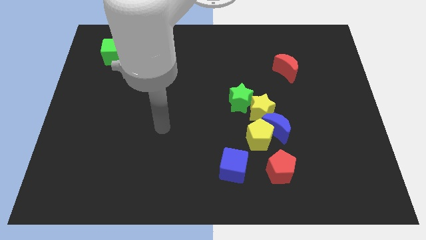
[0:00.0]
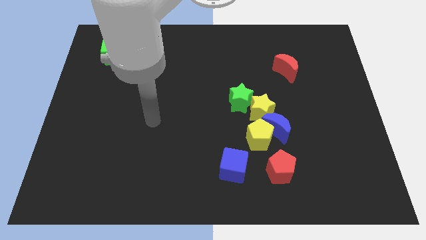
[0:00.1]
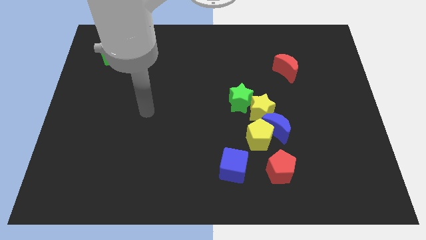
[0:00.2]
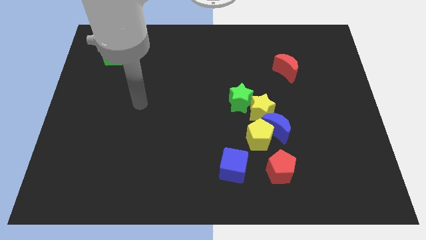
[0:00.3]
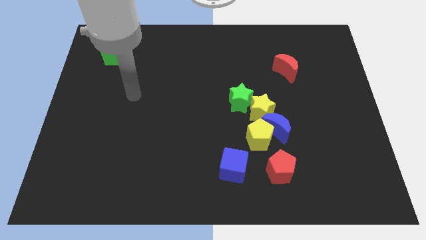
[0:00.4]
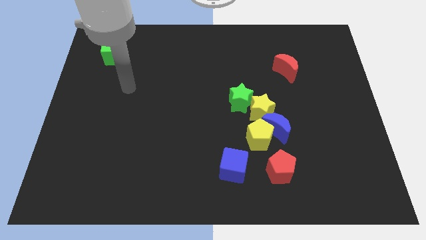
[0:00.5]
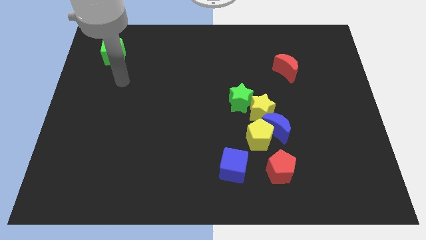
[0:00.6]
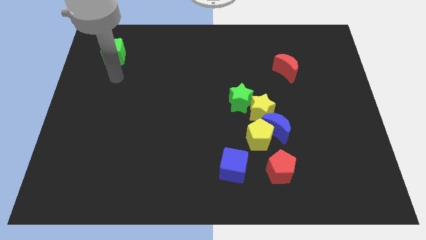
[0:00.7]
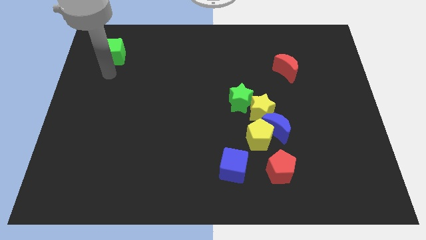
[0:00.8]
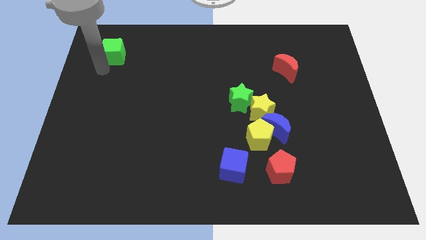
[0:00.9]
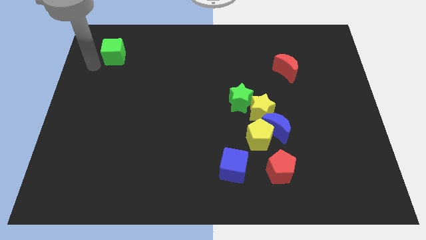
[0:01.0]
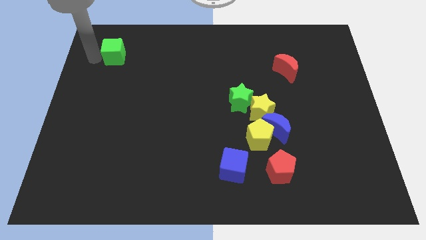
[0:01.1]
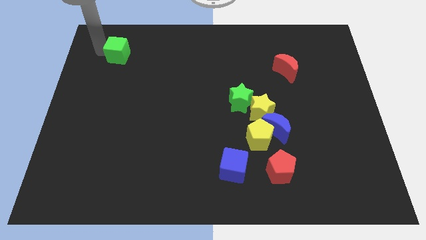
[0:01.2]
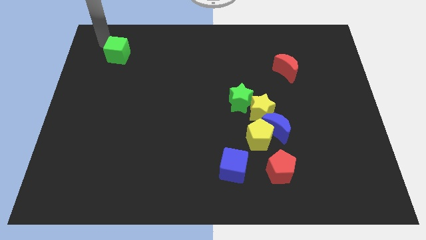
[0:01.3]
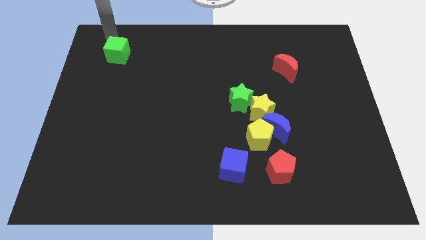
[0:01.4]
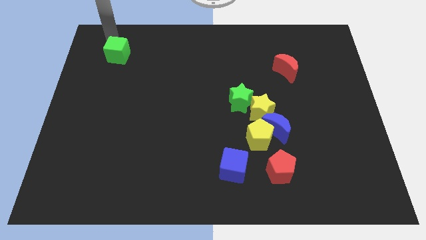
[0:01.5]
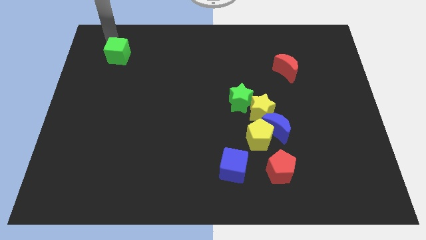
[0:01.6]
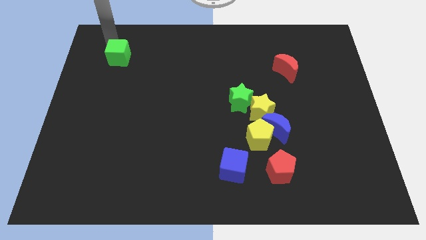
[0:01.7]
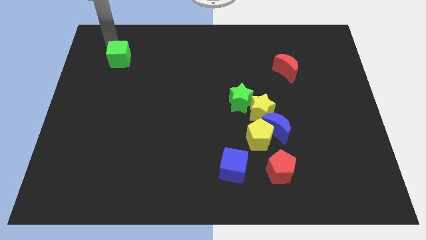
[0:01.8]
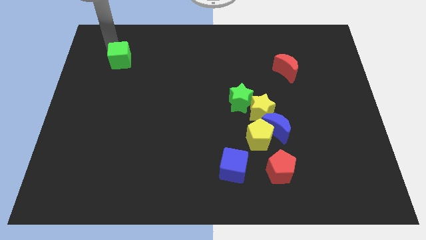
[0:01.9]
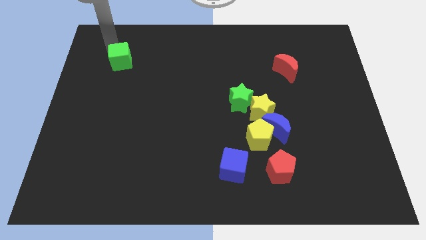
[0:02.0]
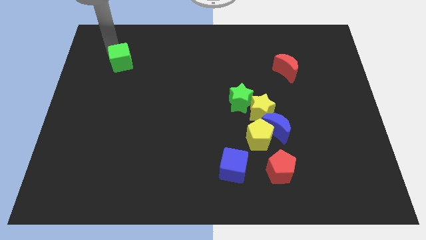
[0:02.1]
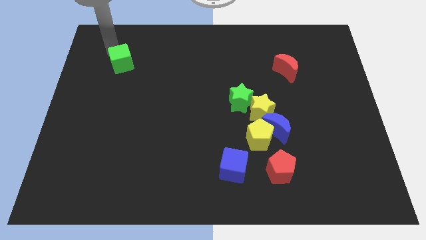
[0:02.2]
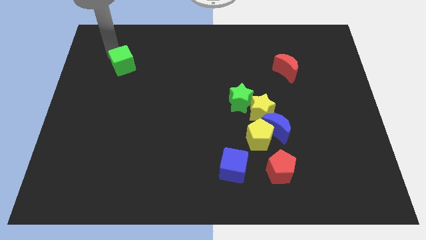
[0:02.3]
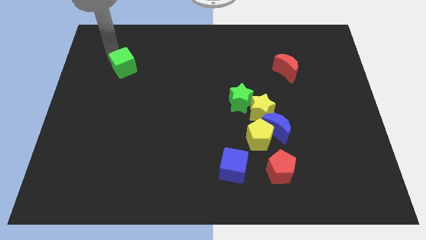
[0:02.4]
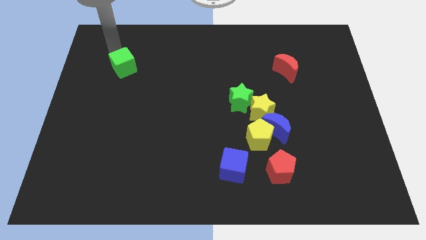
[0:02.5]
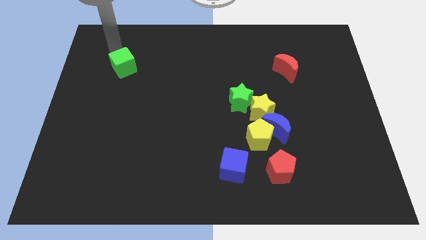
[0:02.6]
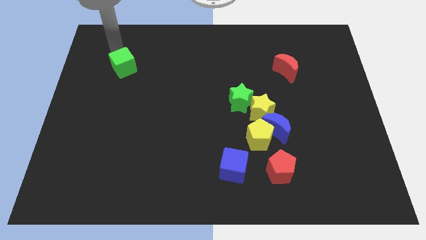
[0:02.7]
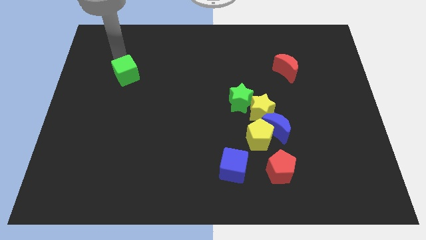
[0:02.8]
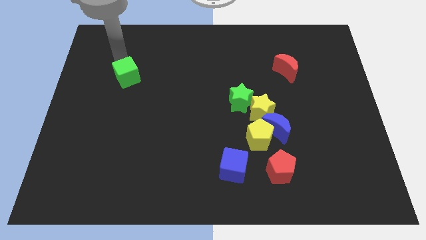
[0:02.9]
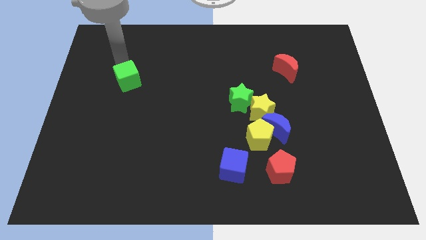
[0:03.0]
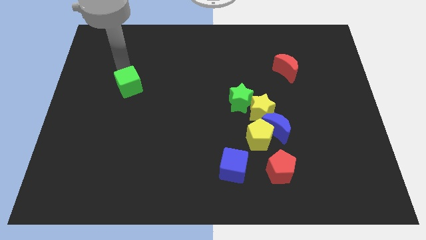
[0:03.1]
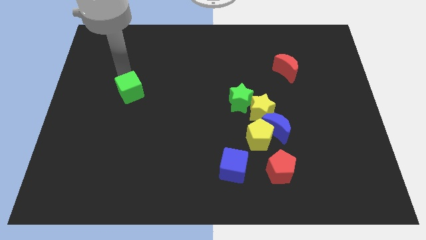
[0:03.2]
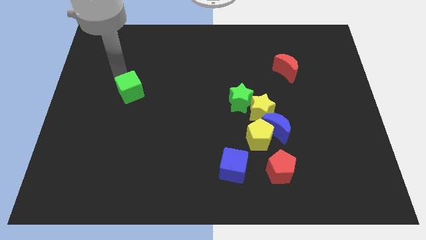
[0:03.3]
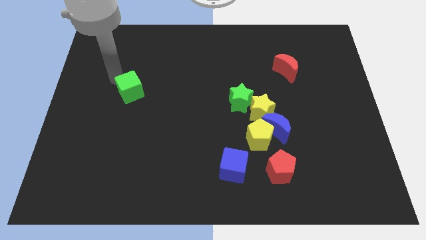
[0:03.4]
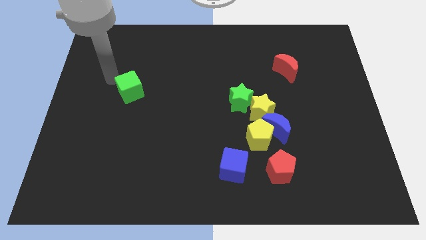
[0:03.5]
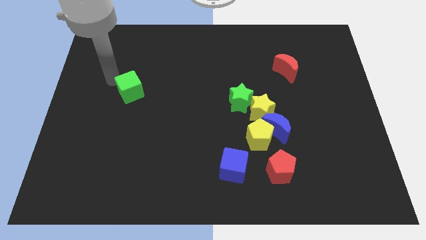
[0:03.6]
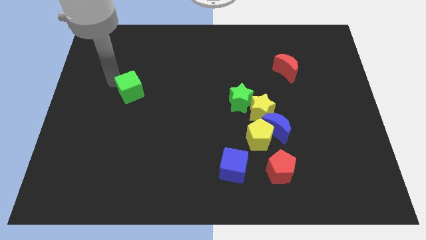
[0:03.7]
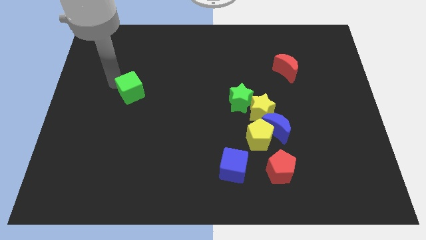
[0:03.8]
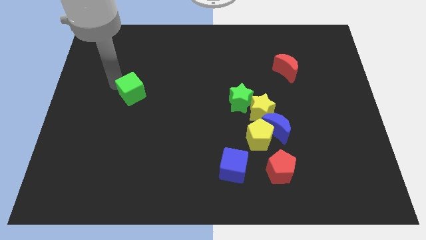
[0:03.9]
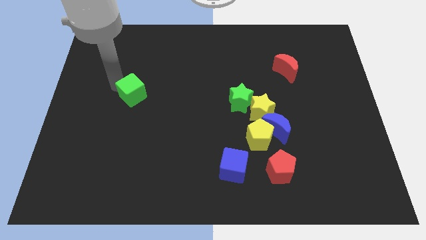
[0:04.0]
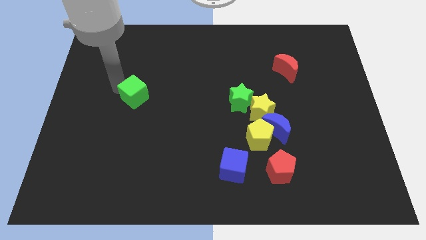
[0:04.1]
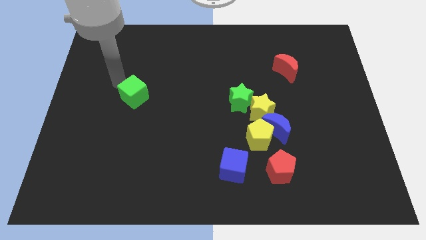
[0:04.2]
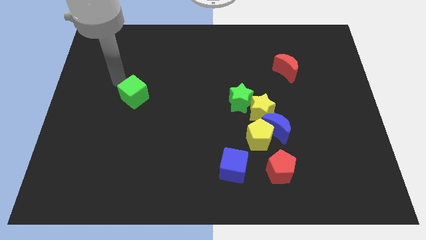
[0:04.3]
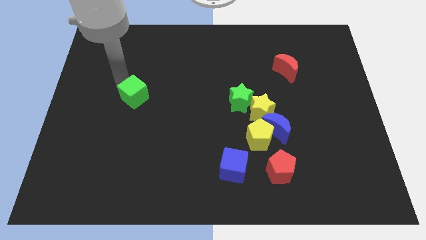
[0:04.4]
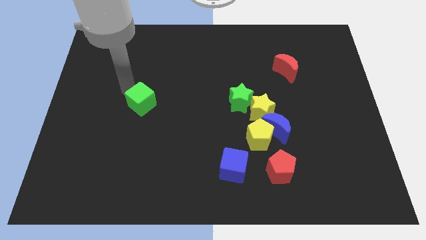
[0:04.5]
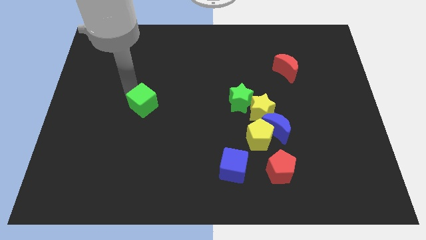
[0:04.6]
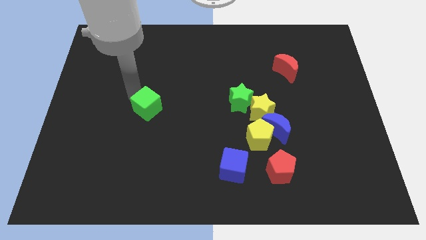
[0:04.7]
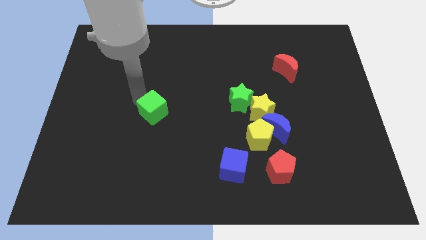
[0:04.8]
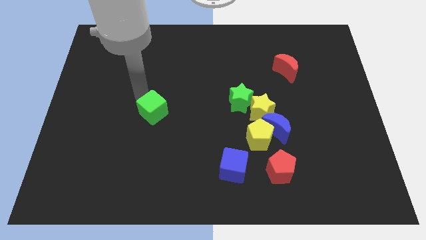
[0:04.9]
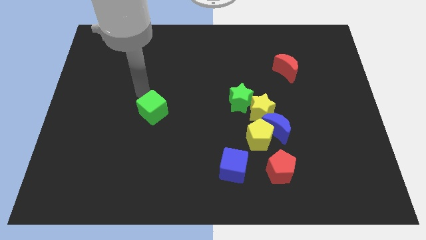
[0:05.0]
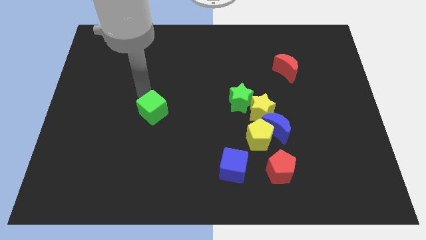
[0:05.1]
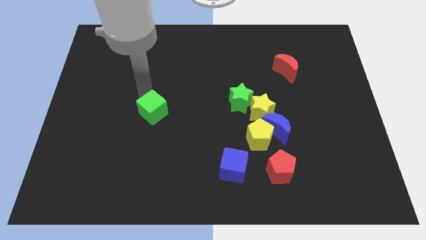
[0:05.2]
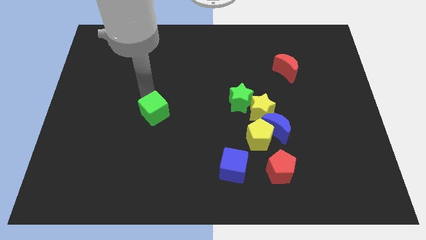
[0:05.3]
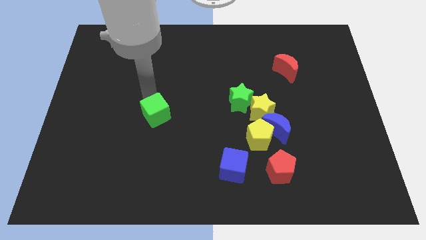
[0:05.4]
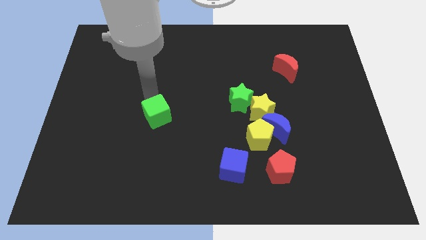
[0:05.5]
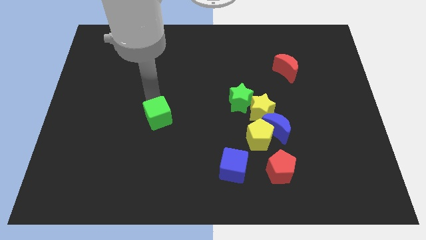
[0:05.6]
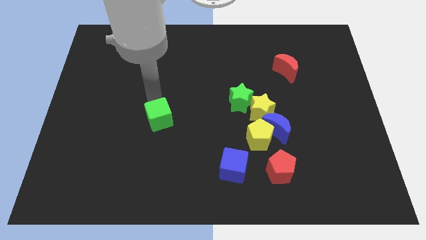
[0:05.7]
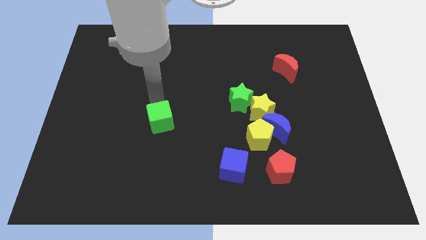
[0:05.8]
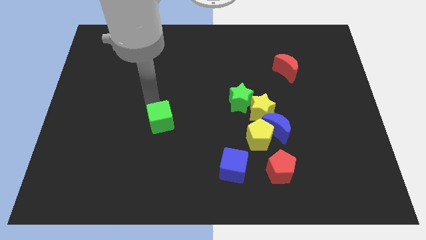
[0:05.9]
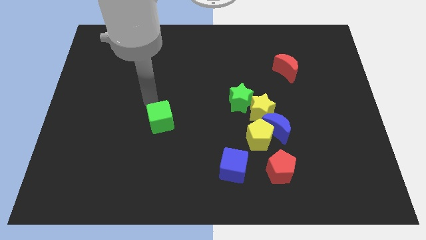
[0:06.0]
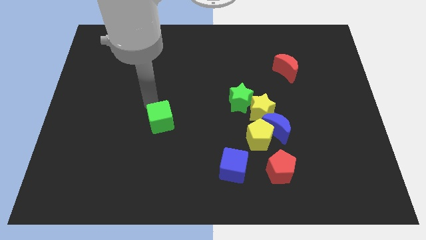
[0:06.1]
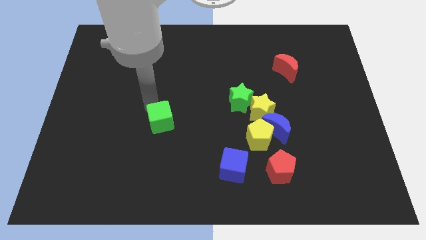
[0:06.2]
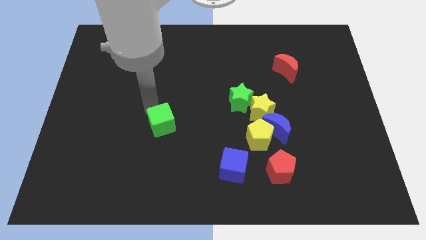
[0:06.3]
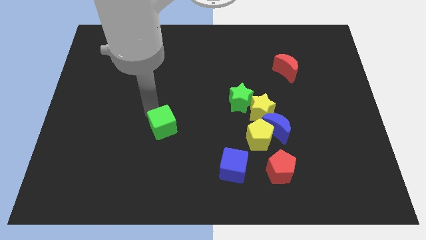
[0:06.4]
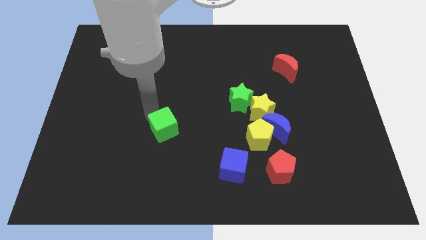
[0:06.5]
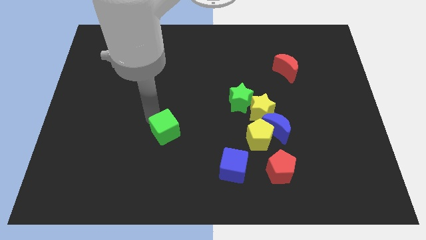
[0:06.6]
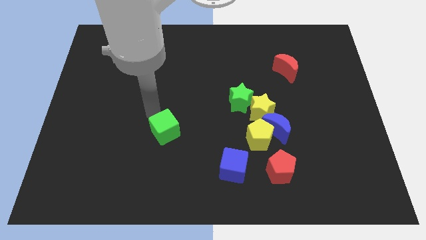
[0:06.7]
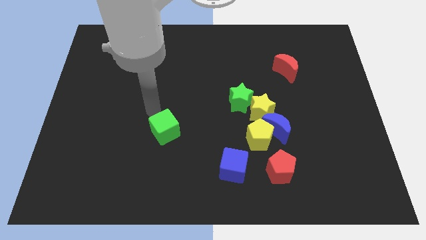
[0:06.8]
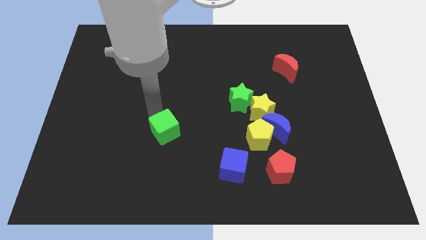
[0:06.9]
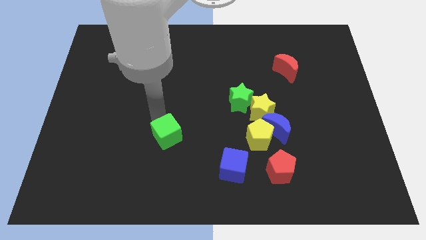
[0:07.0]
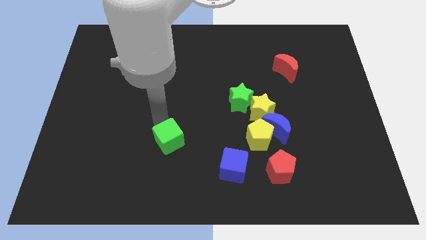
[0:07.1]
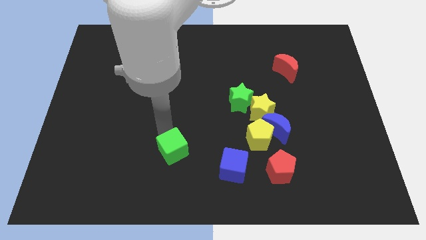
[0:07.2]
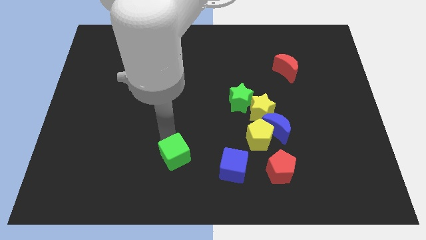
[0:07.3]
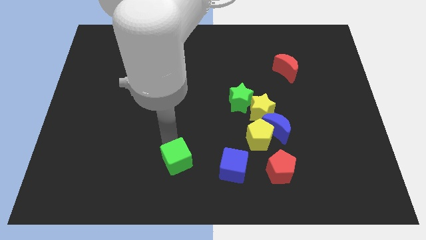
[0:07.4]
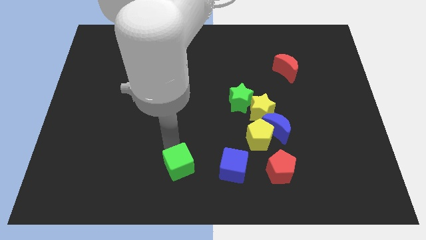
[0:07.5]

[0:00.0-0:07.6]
put the green cube to the bottom
